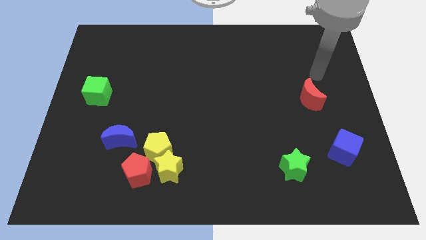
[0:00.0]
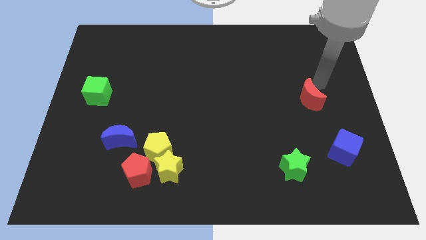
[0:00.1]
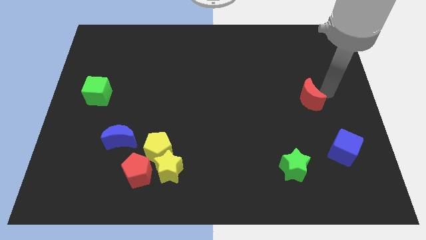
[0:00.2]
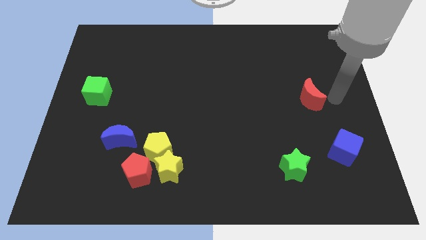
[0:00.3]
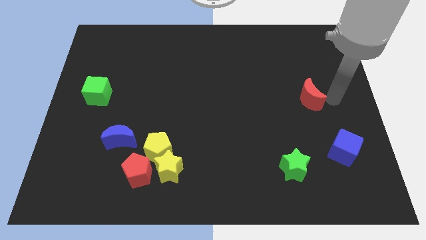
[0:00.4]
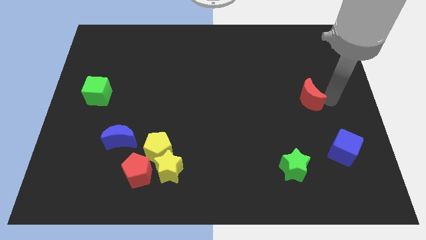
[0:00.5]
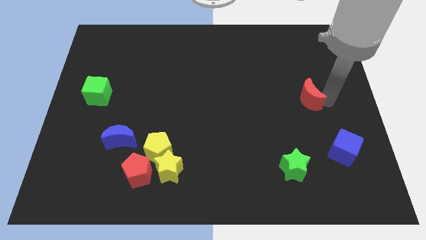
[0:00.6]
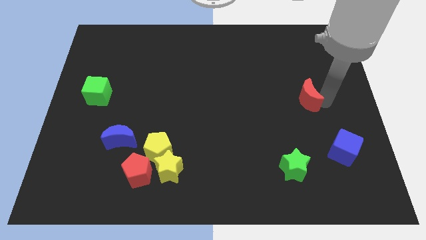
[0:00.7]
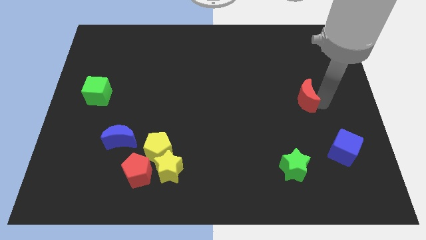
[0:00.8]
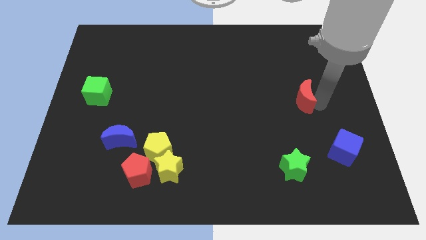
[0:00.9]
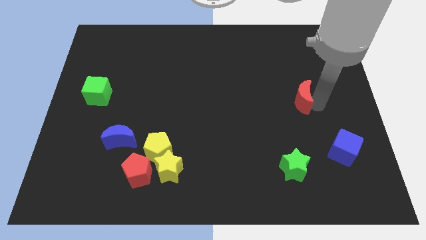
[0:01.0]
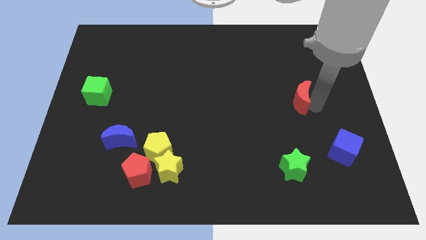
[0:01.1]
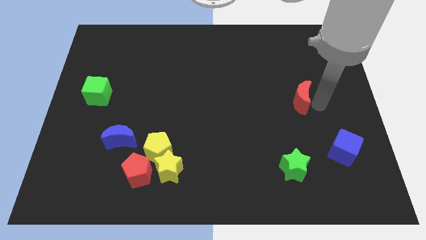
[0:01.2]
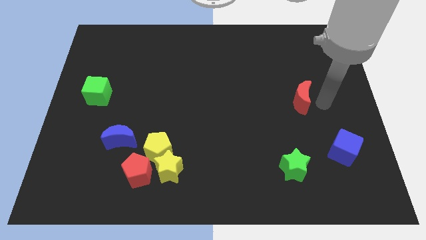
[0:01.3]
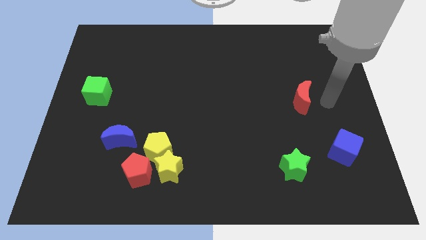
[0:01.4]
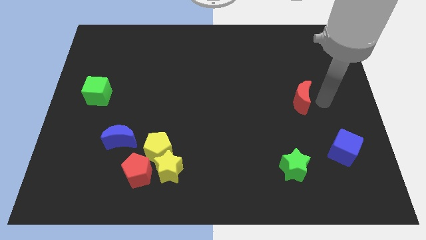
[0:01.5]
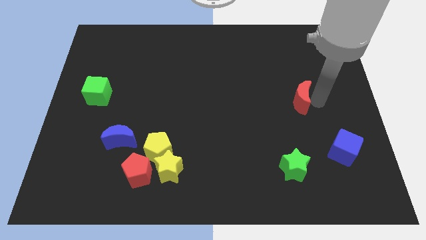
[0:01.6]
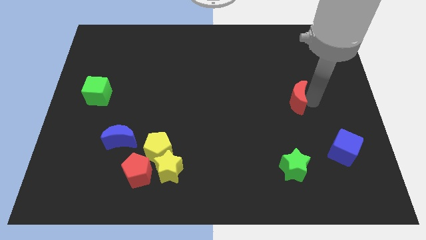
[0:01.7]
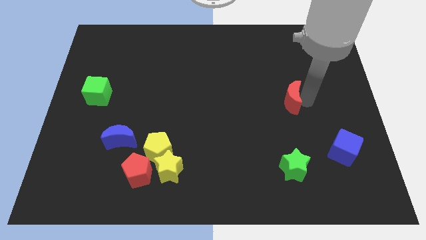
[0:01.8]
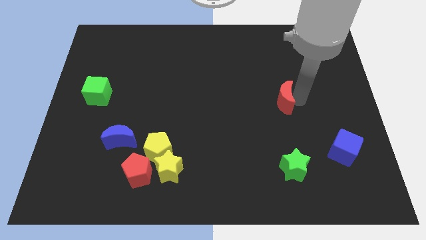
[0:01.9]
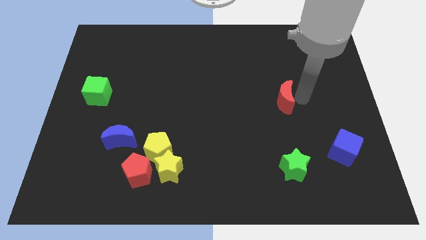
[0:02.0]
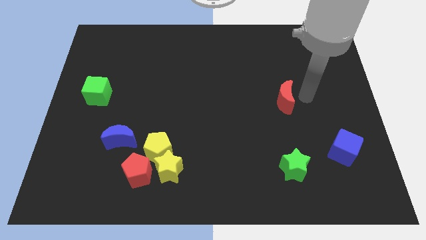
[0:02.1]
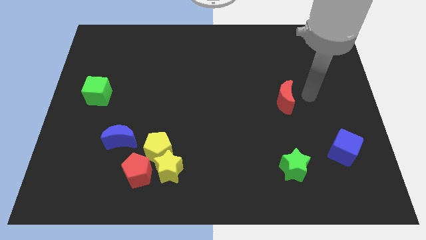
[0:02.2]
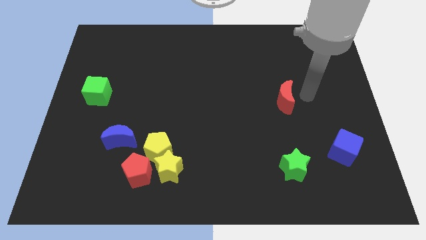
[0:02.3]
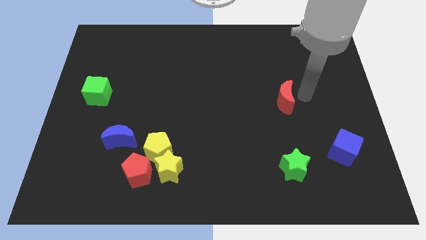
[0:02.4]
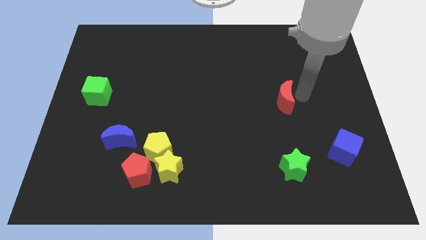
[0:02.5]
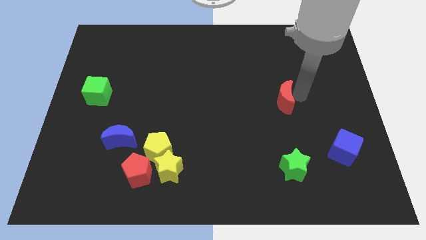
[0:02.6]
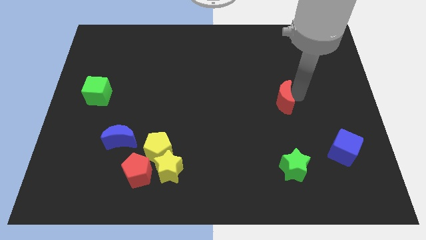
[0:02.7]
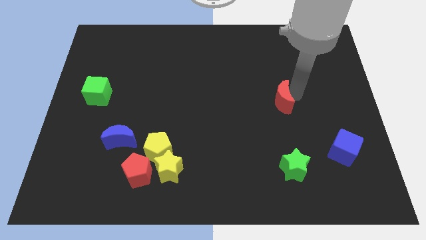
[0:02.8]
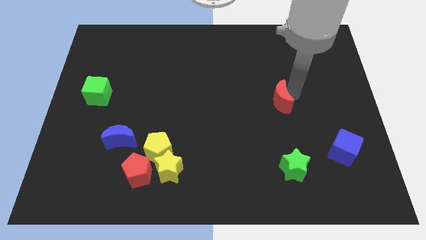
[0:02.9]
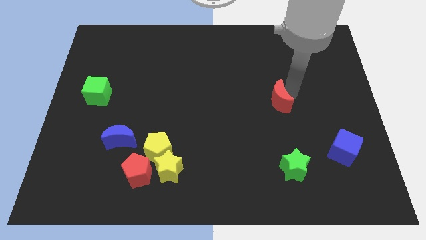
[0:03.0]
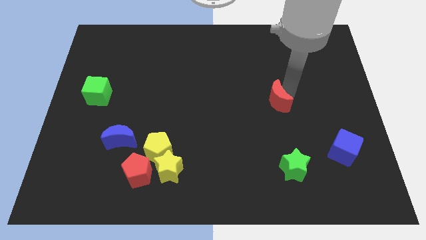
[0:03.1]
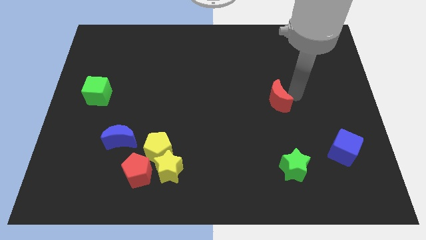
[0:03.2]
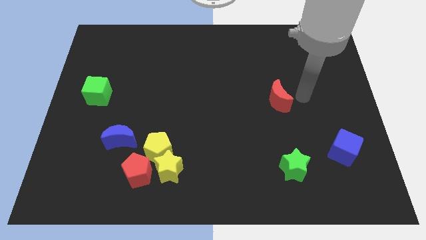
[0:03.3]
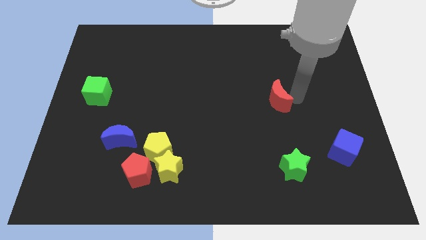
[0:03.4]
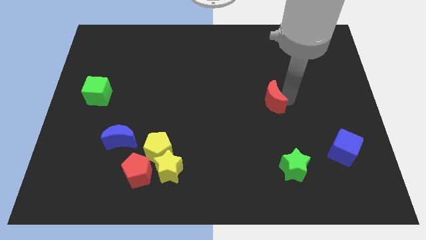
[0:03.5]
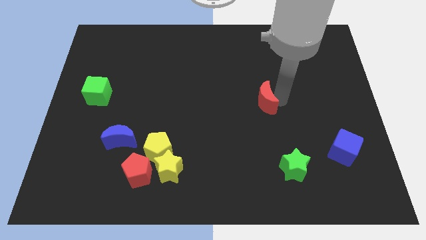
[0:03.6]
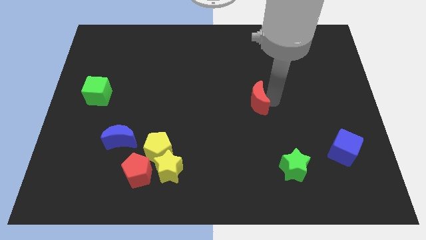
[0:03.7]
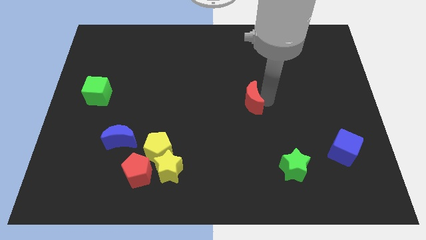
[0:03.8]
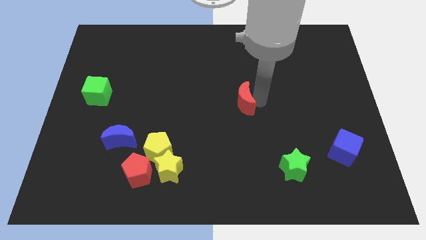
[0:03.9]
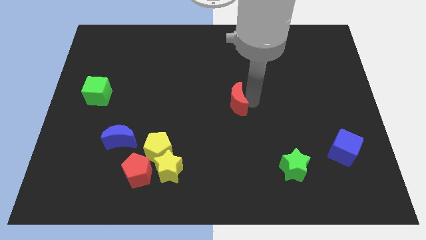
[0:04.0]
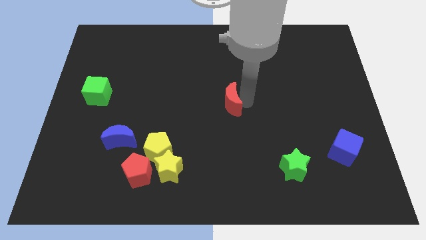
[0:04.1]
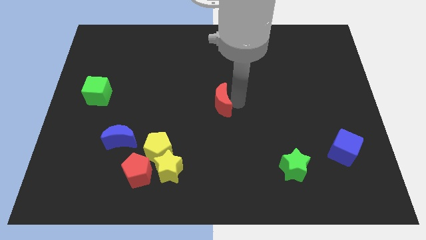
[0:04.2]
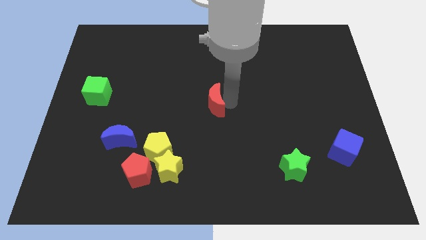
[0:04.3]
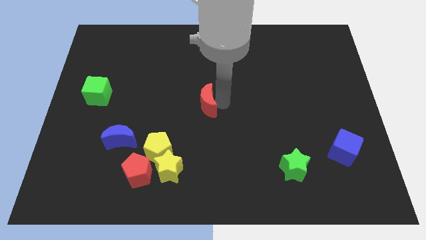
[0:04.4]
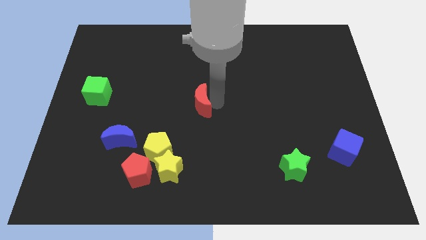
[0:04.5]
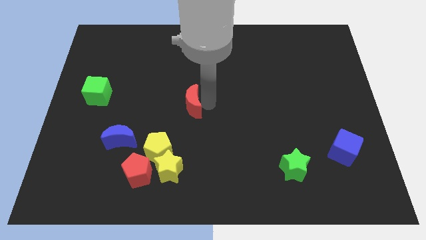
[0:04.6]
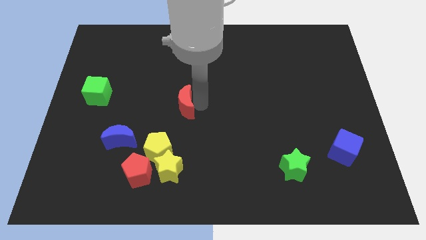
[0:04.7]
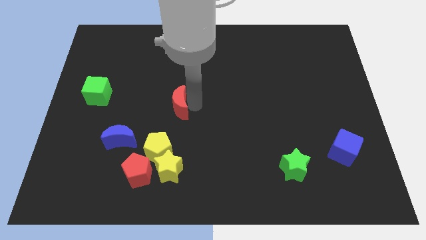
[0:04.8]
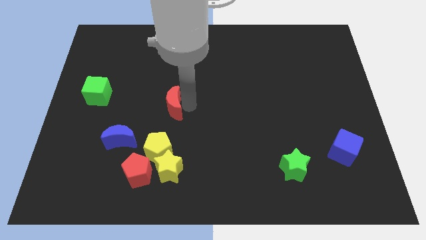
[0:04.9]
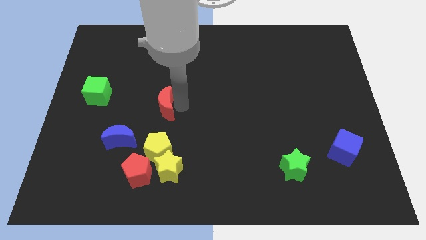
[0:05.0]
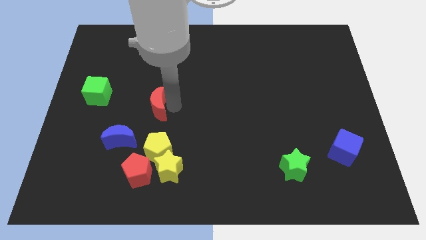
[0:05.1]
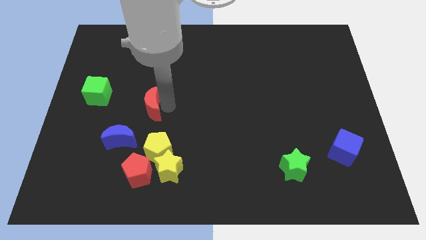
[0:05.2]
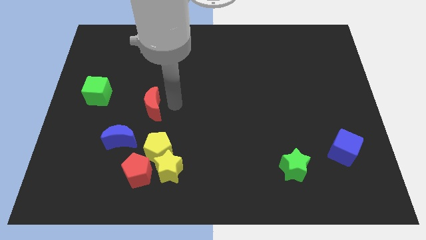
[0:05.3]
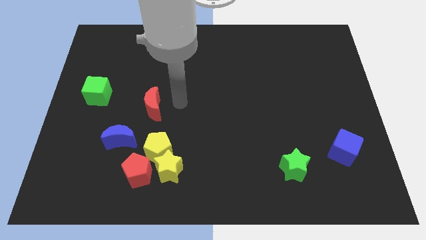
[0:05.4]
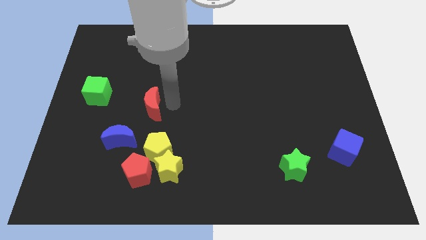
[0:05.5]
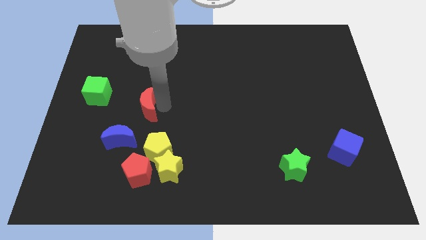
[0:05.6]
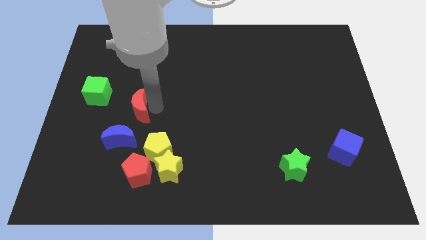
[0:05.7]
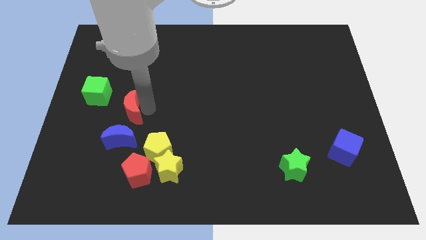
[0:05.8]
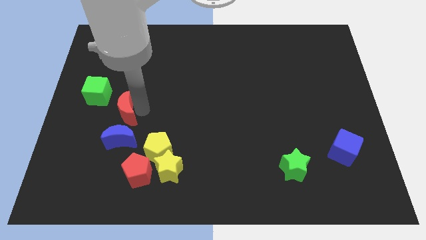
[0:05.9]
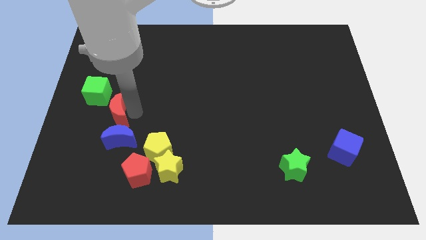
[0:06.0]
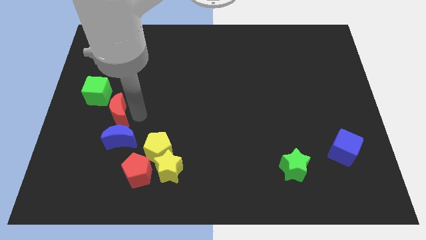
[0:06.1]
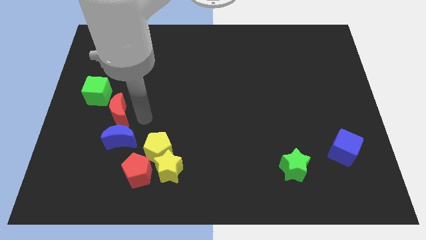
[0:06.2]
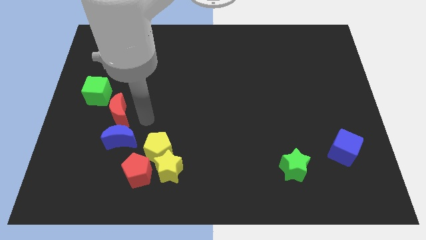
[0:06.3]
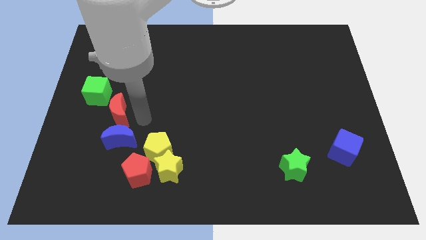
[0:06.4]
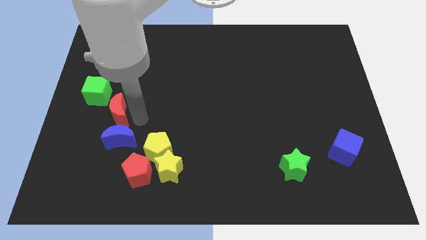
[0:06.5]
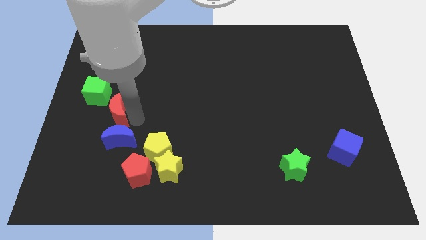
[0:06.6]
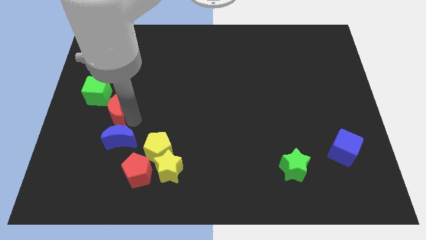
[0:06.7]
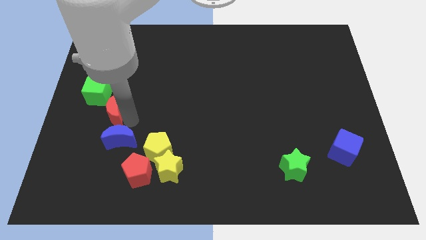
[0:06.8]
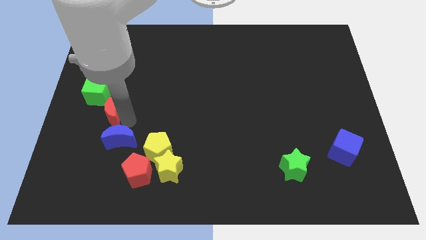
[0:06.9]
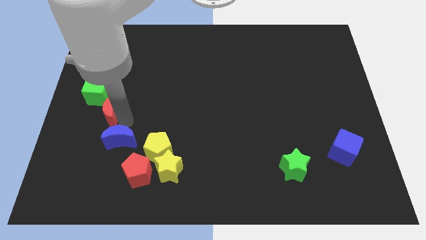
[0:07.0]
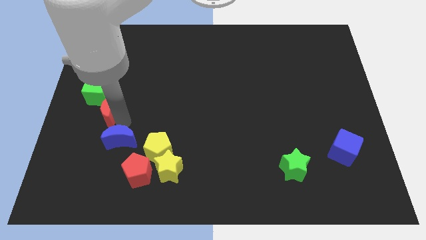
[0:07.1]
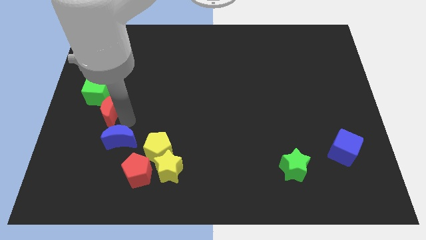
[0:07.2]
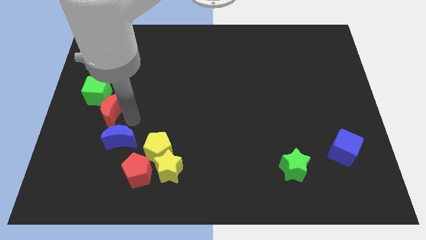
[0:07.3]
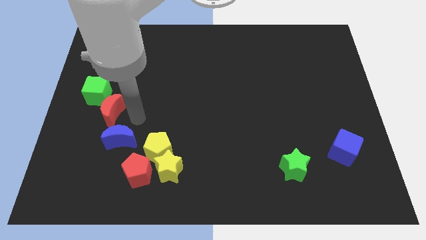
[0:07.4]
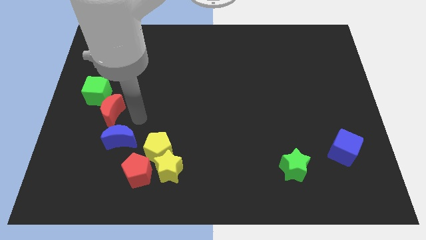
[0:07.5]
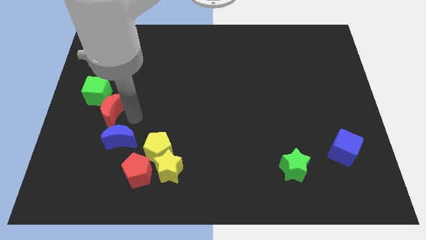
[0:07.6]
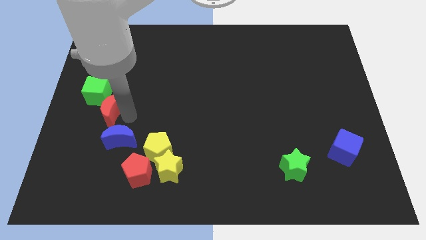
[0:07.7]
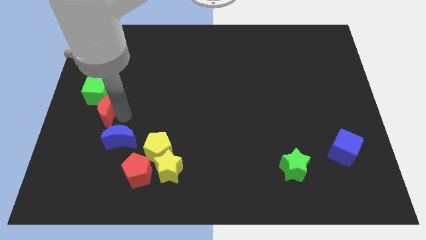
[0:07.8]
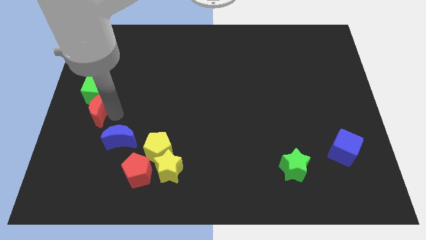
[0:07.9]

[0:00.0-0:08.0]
slide the red moon to the center left
